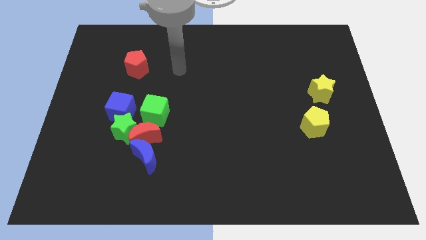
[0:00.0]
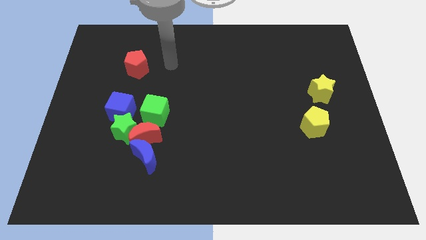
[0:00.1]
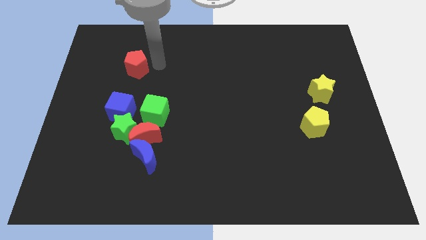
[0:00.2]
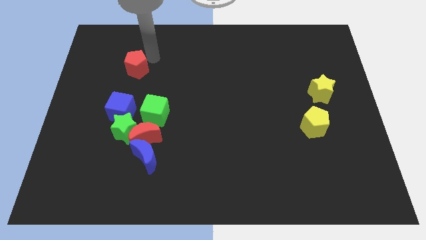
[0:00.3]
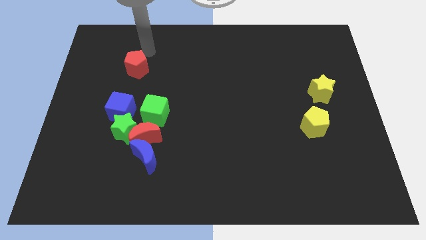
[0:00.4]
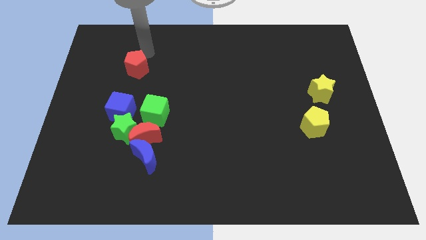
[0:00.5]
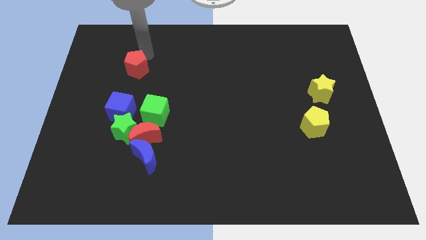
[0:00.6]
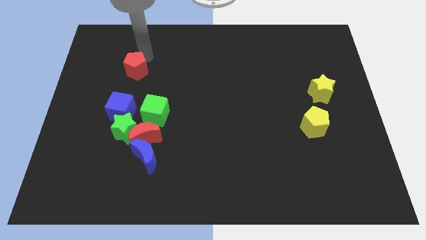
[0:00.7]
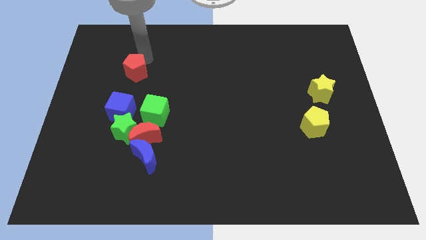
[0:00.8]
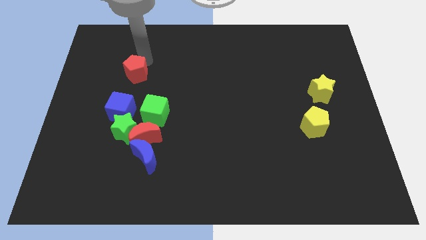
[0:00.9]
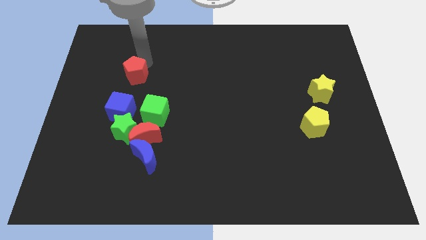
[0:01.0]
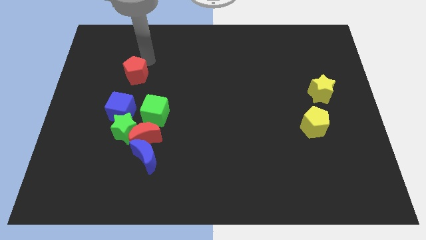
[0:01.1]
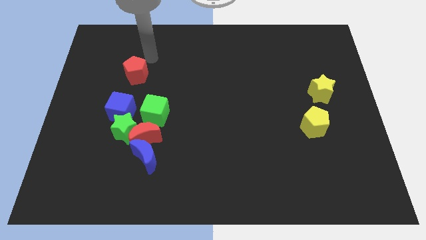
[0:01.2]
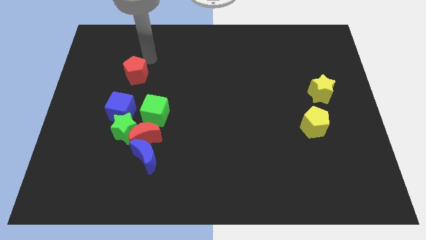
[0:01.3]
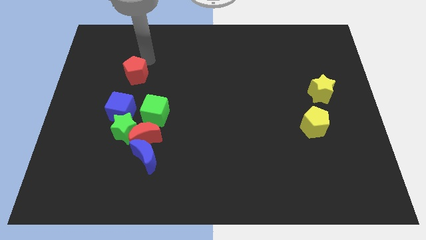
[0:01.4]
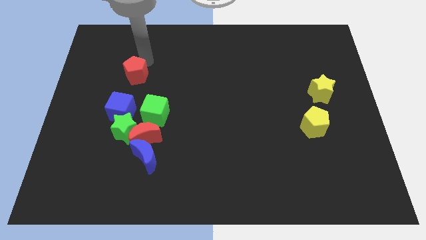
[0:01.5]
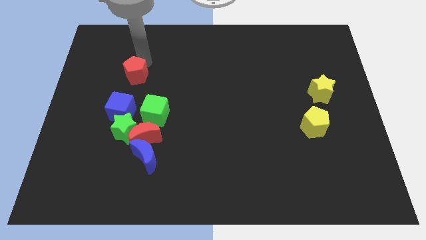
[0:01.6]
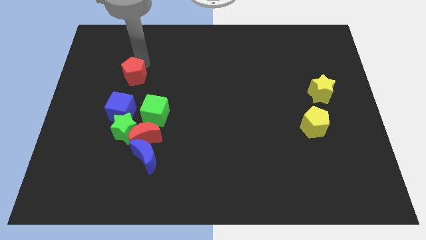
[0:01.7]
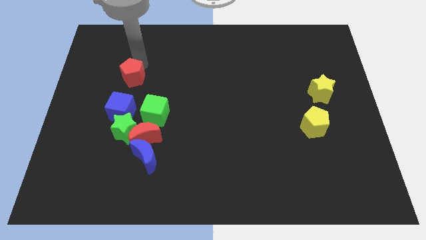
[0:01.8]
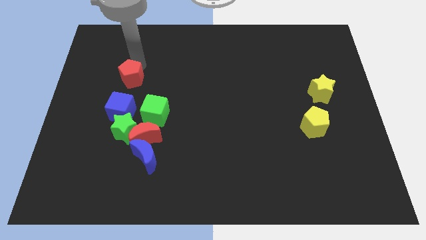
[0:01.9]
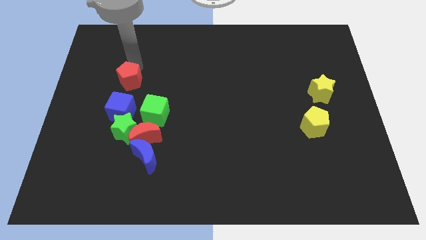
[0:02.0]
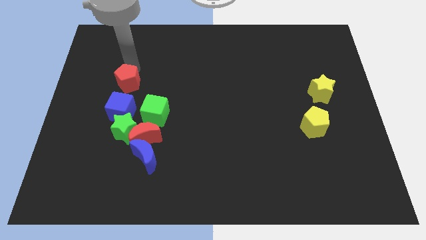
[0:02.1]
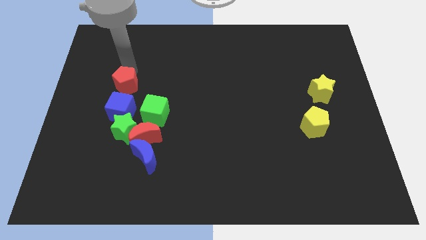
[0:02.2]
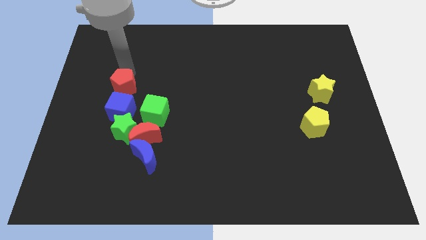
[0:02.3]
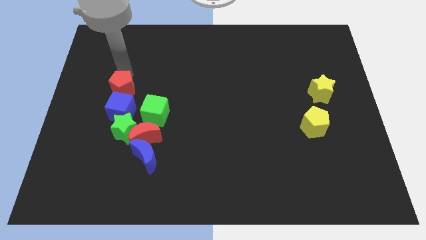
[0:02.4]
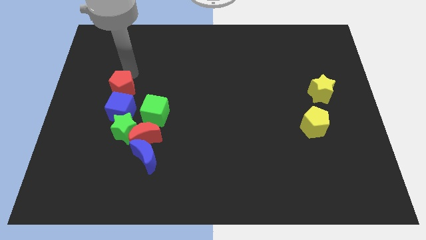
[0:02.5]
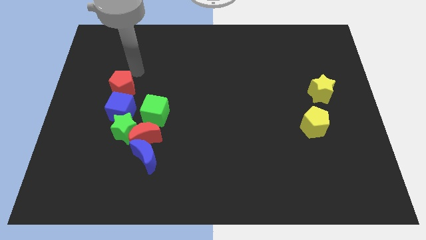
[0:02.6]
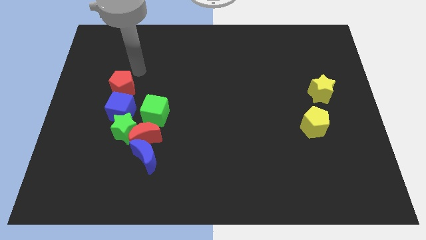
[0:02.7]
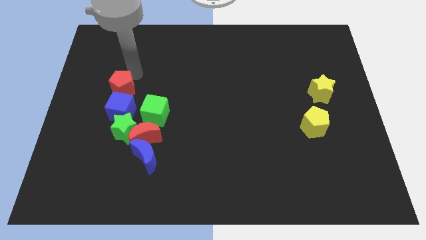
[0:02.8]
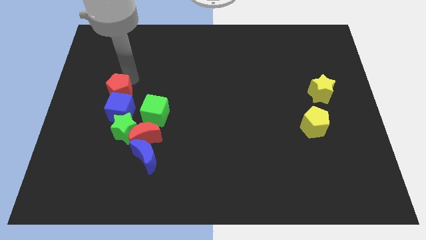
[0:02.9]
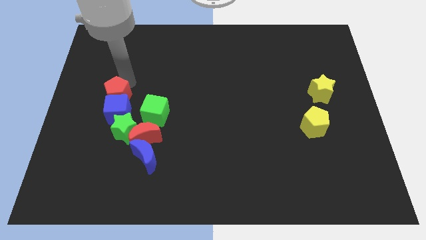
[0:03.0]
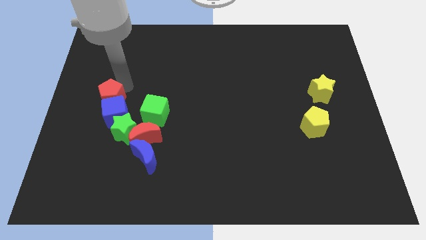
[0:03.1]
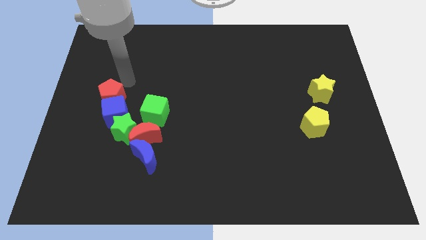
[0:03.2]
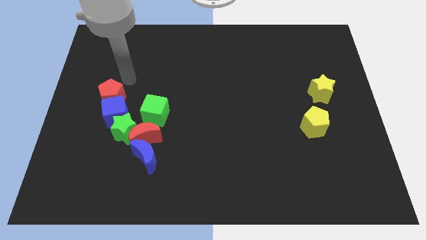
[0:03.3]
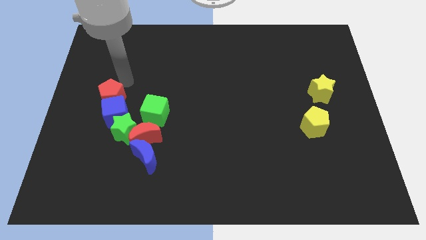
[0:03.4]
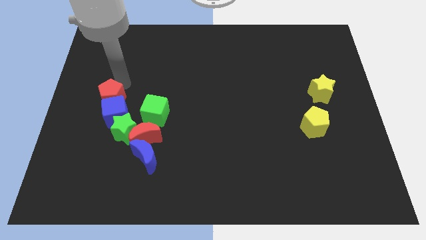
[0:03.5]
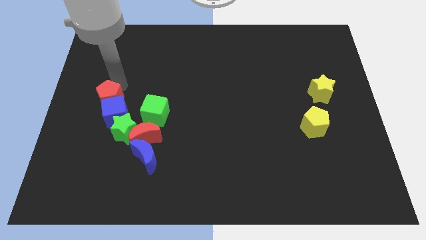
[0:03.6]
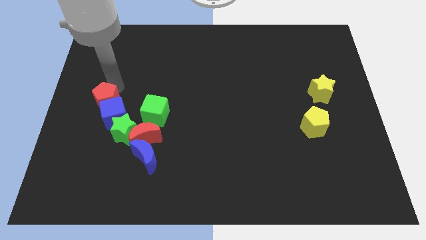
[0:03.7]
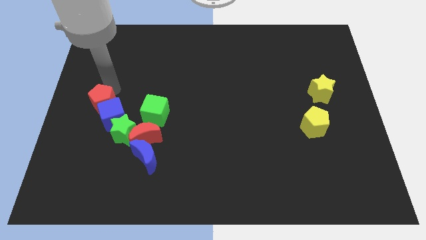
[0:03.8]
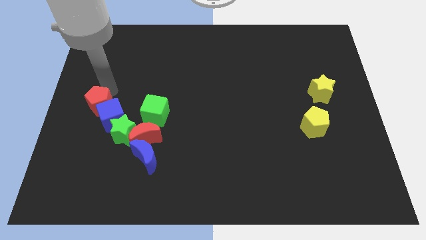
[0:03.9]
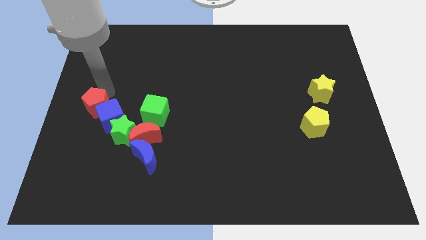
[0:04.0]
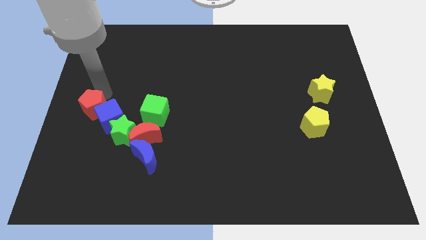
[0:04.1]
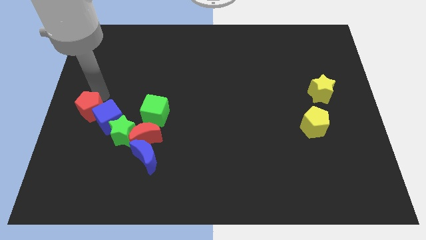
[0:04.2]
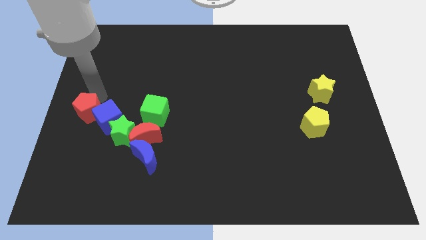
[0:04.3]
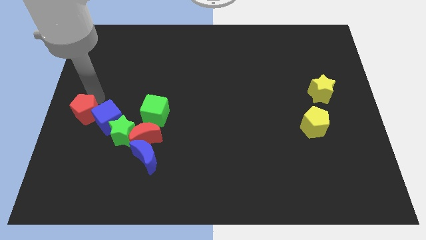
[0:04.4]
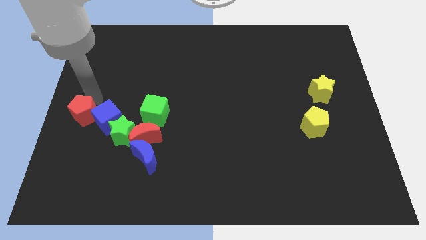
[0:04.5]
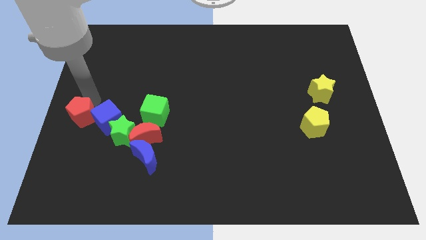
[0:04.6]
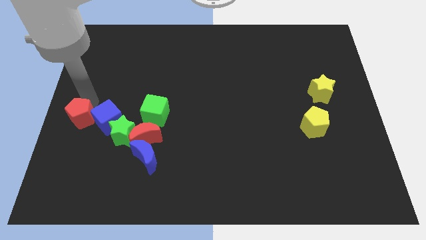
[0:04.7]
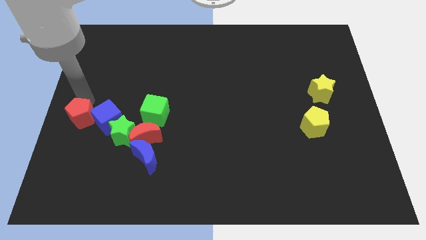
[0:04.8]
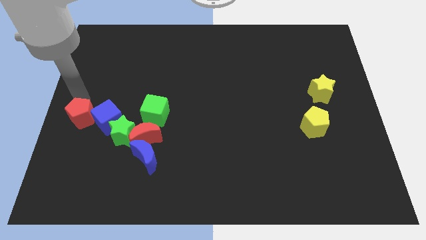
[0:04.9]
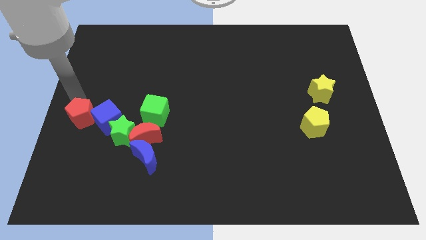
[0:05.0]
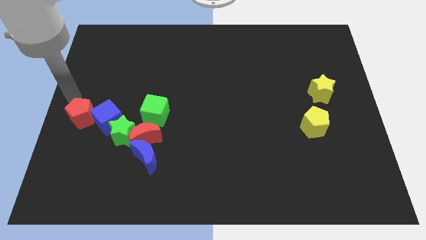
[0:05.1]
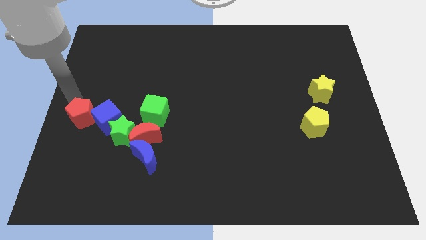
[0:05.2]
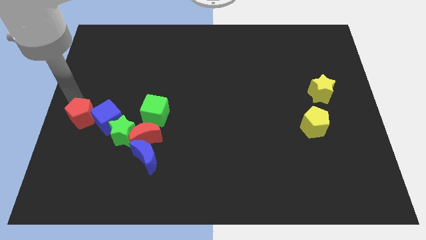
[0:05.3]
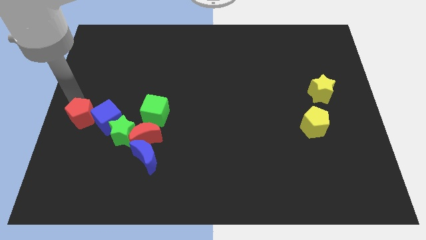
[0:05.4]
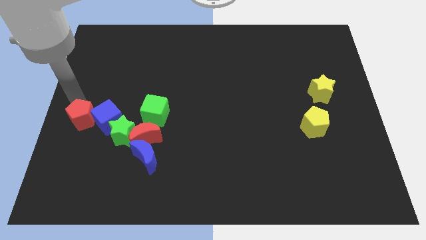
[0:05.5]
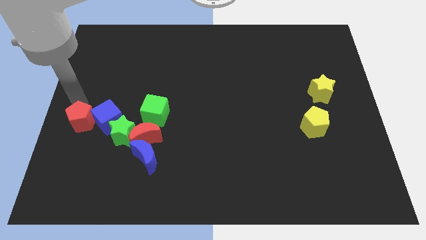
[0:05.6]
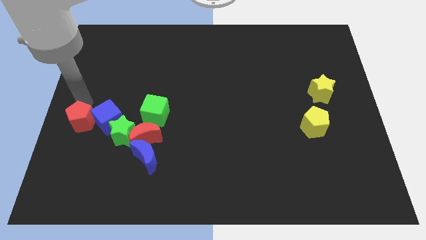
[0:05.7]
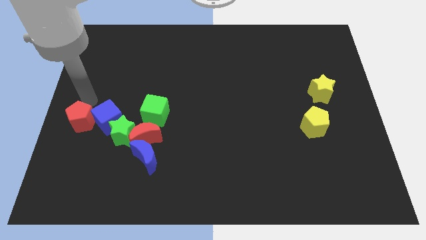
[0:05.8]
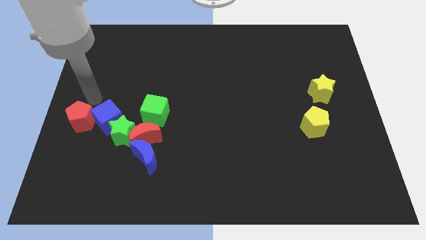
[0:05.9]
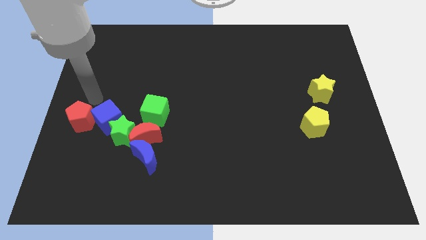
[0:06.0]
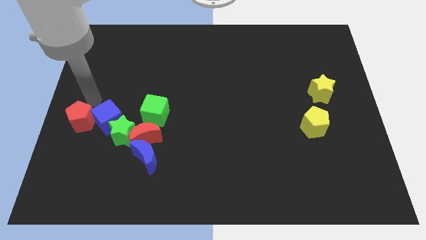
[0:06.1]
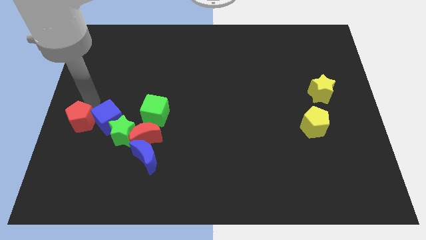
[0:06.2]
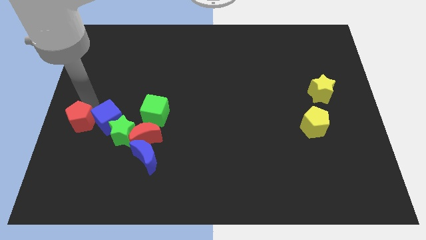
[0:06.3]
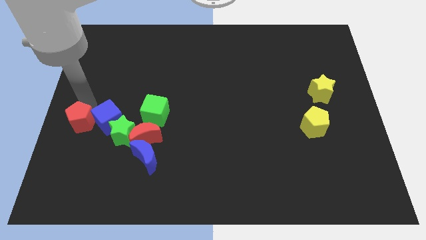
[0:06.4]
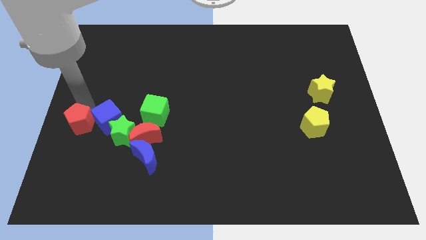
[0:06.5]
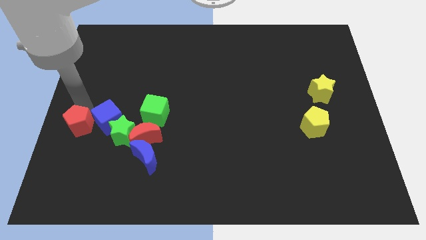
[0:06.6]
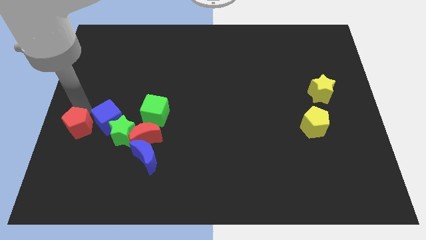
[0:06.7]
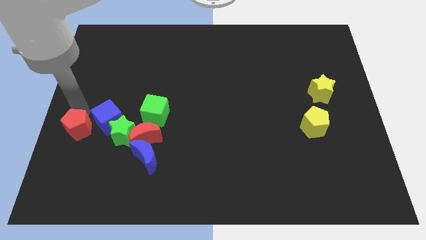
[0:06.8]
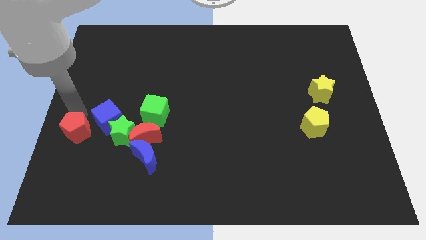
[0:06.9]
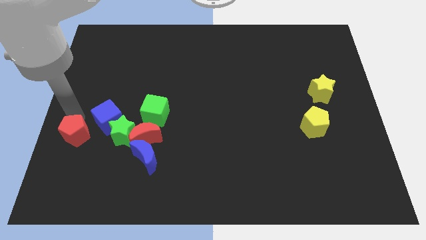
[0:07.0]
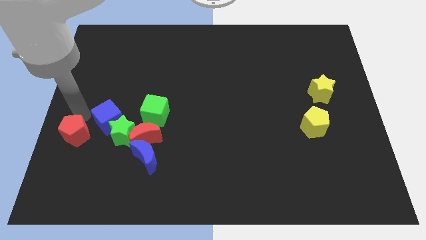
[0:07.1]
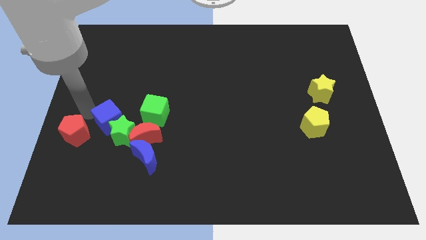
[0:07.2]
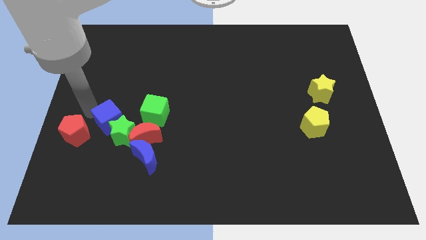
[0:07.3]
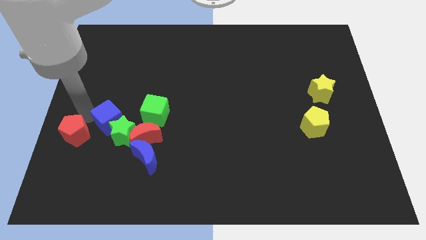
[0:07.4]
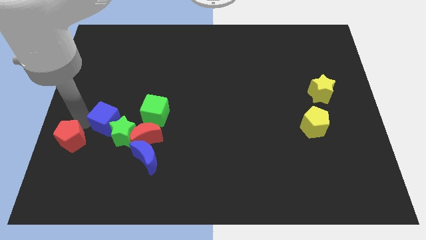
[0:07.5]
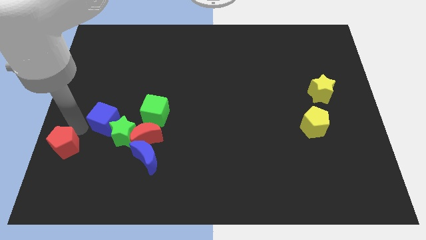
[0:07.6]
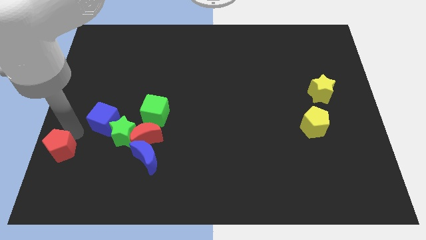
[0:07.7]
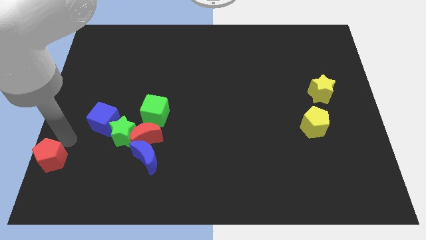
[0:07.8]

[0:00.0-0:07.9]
put the red pentagon to the bottom left of the board
